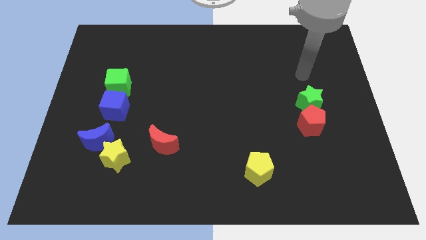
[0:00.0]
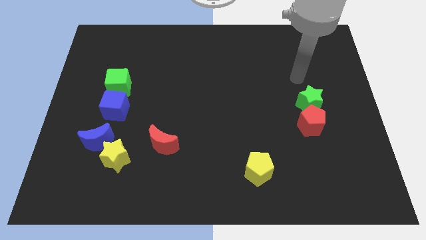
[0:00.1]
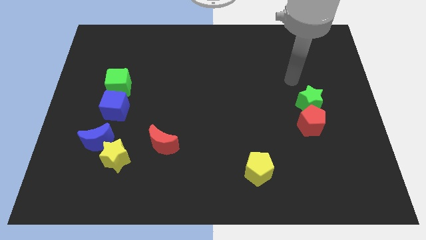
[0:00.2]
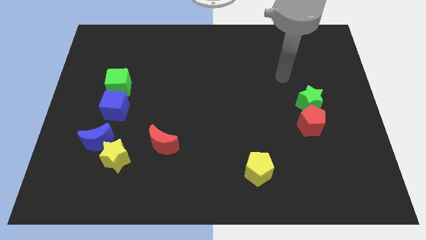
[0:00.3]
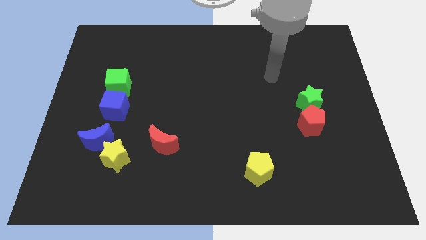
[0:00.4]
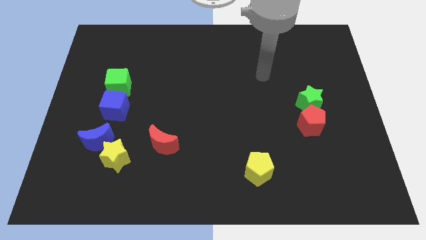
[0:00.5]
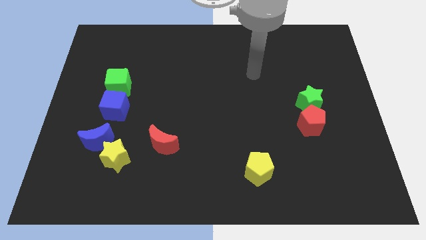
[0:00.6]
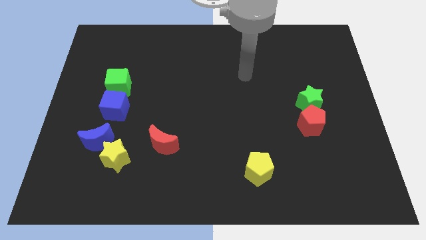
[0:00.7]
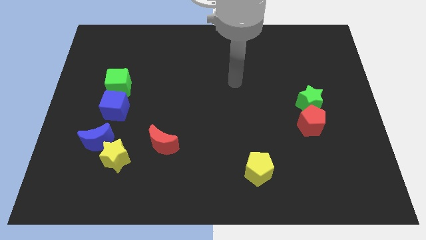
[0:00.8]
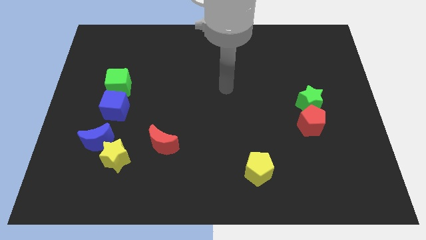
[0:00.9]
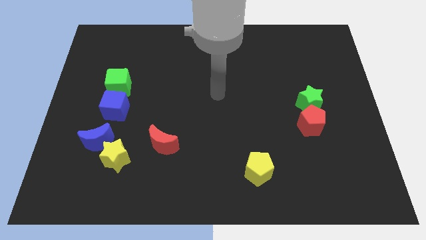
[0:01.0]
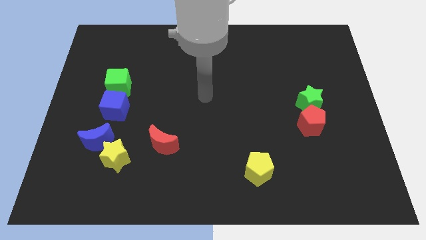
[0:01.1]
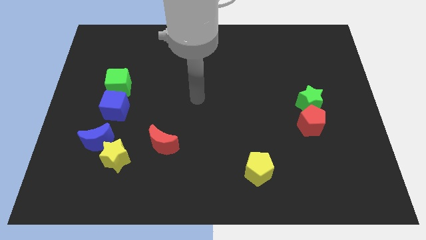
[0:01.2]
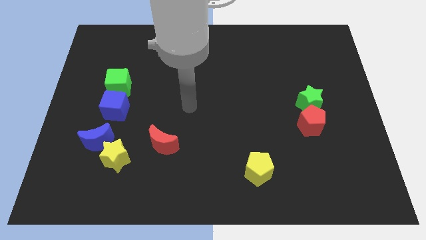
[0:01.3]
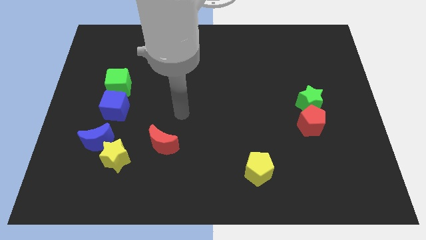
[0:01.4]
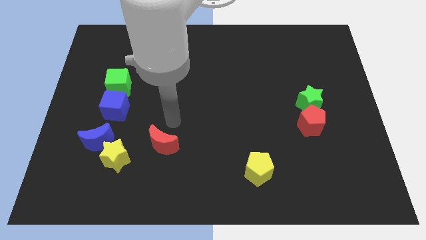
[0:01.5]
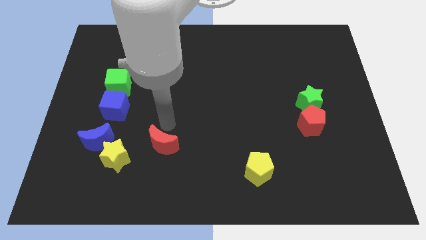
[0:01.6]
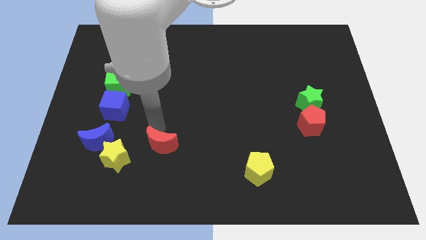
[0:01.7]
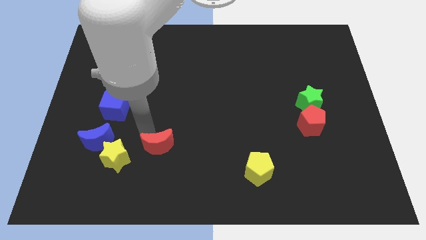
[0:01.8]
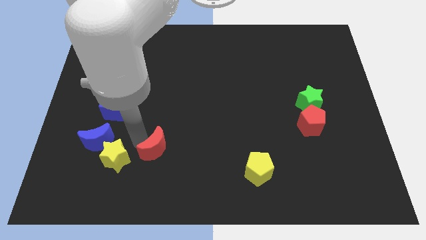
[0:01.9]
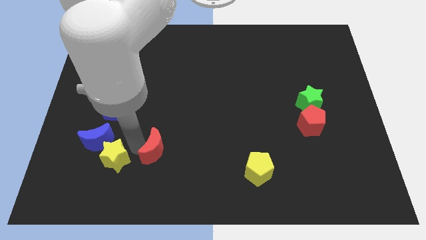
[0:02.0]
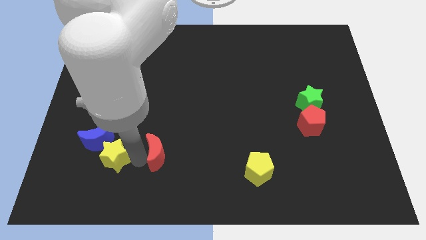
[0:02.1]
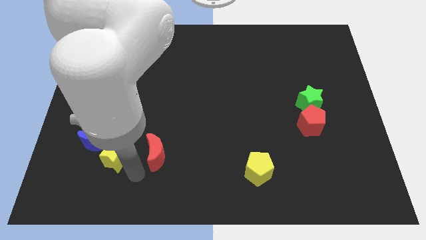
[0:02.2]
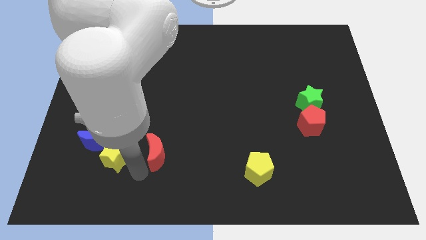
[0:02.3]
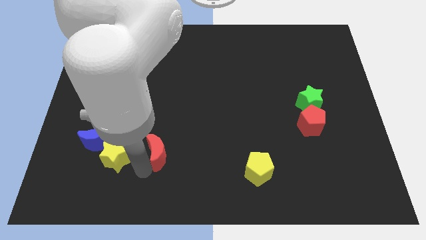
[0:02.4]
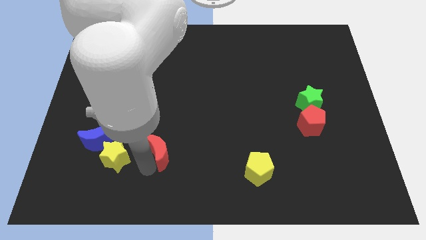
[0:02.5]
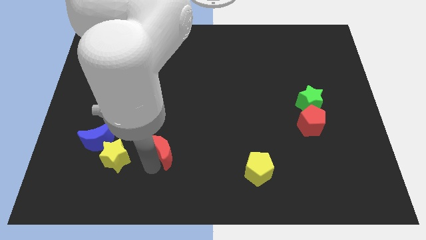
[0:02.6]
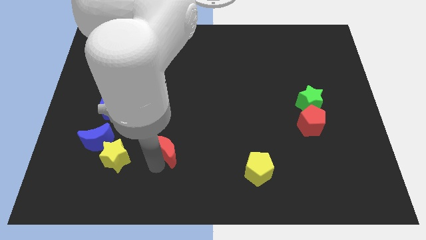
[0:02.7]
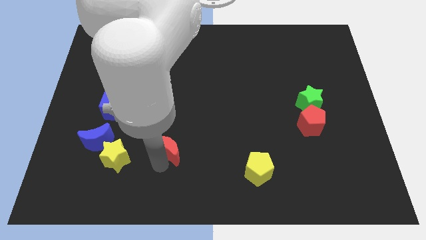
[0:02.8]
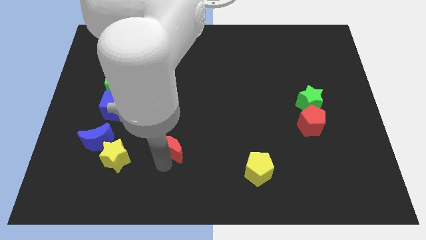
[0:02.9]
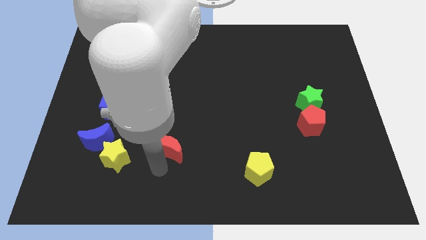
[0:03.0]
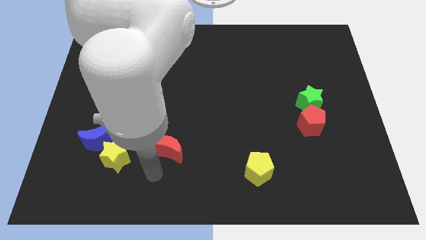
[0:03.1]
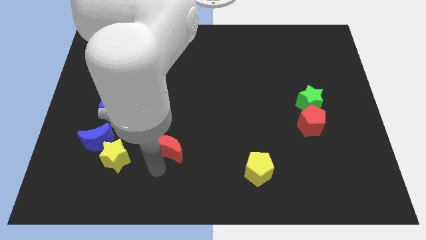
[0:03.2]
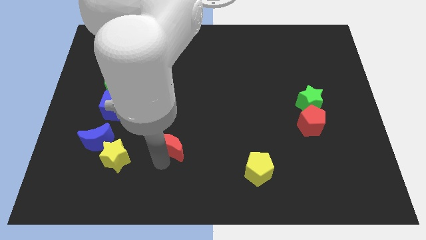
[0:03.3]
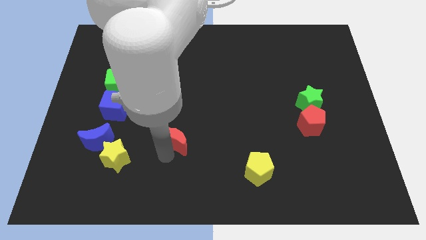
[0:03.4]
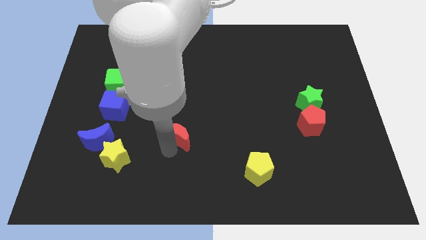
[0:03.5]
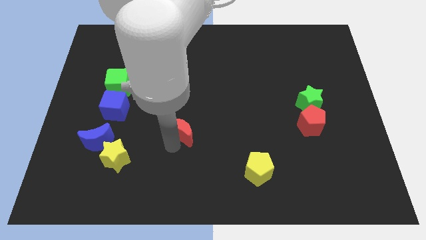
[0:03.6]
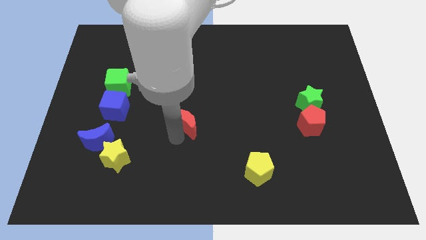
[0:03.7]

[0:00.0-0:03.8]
slightly push the red moon up and right diagonally

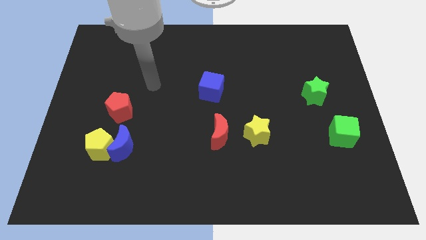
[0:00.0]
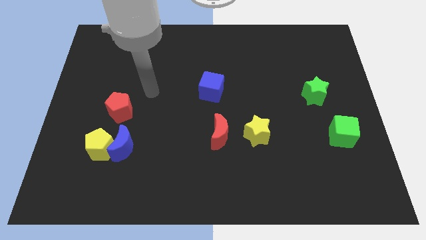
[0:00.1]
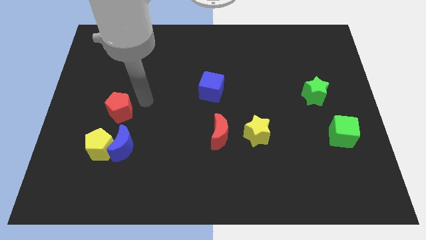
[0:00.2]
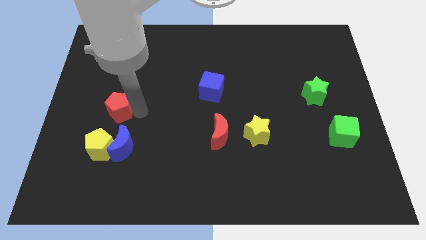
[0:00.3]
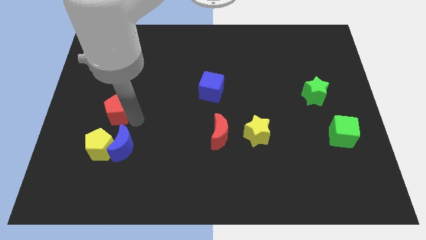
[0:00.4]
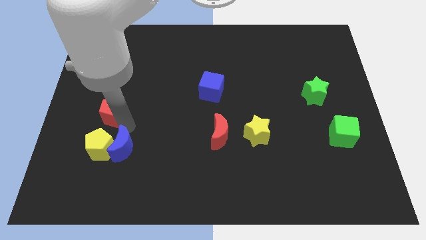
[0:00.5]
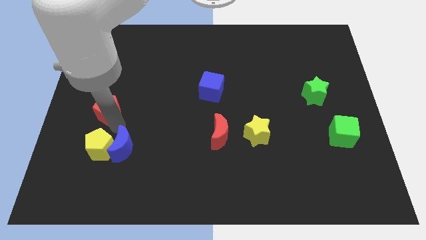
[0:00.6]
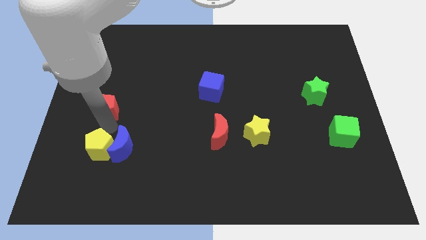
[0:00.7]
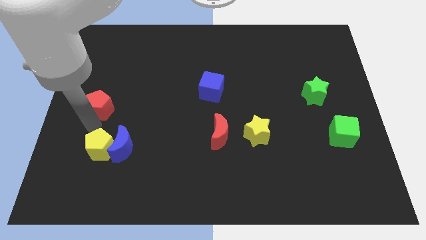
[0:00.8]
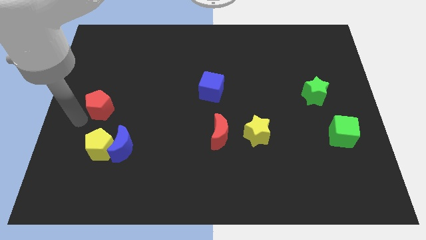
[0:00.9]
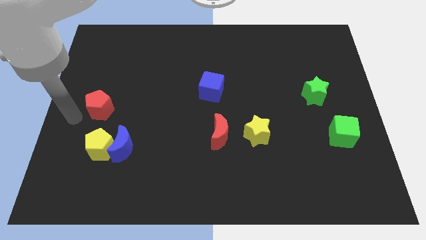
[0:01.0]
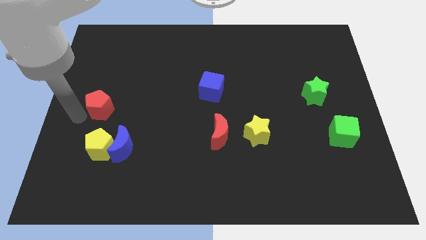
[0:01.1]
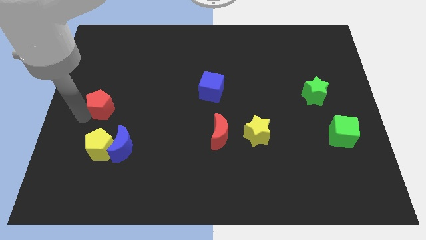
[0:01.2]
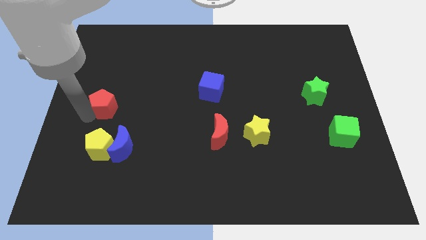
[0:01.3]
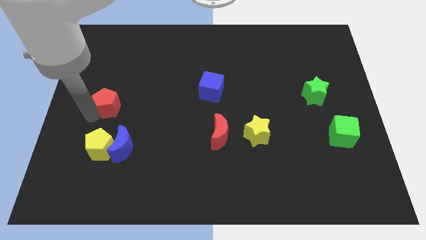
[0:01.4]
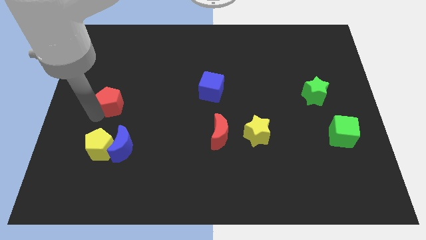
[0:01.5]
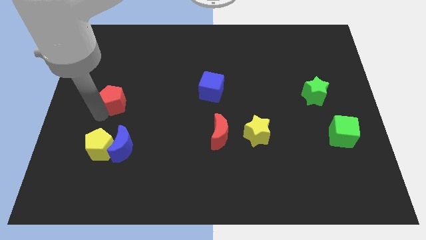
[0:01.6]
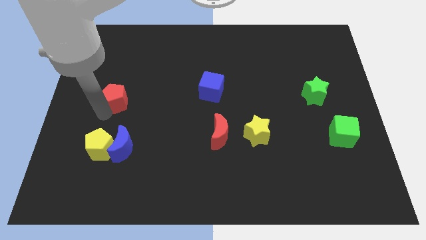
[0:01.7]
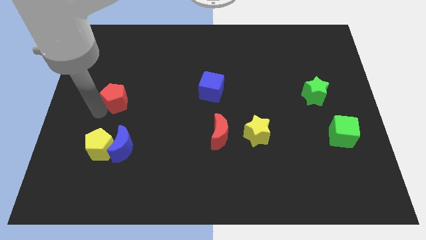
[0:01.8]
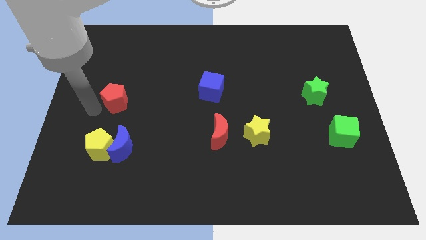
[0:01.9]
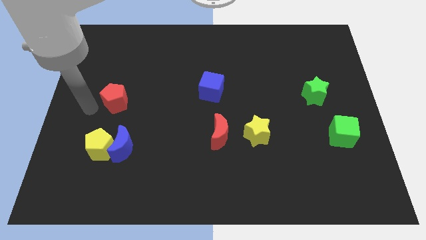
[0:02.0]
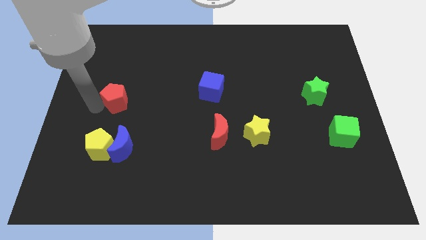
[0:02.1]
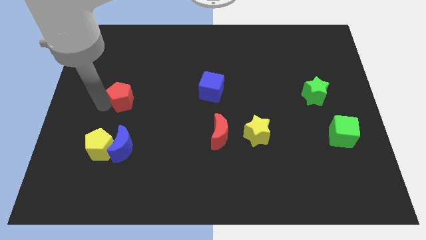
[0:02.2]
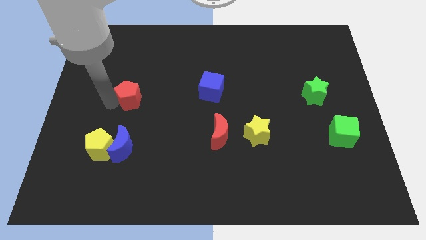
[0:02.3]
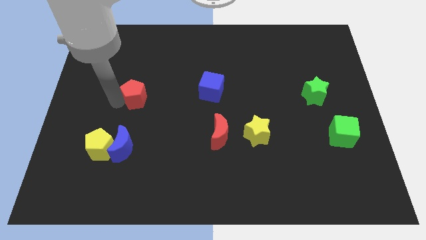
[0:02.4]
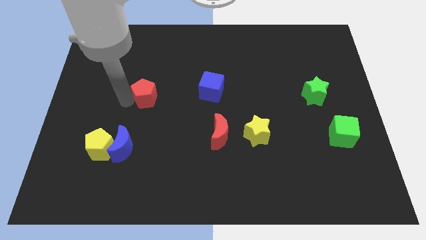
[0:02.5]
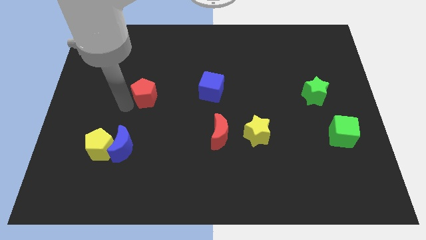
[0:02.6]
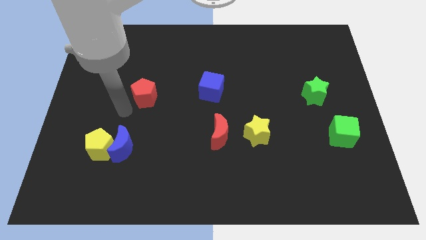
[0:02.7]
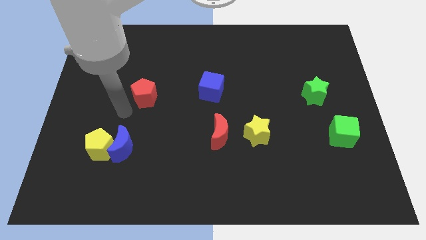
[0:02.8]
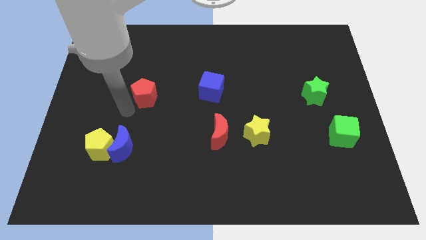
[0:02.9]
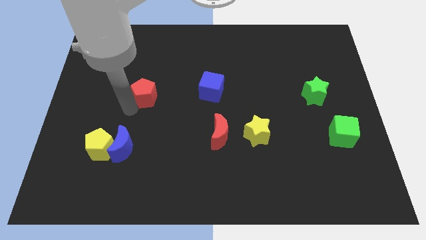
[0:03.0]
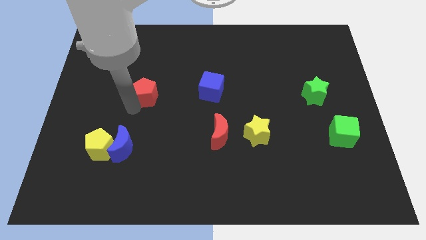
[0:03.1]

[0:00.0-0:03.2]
slightly push the red pentagon upwards and right

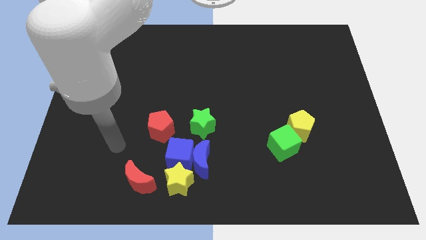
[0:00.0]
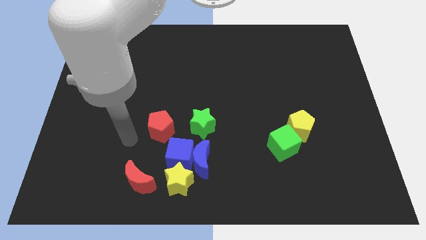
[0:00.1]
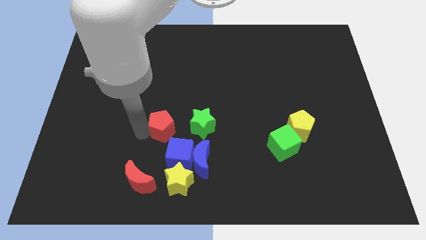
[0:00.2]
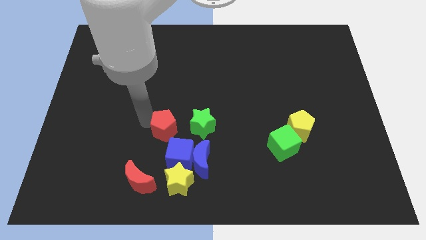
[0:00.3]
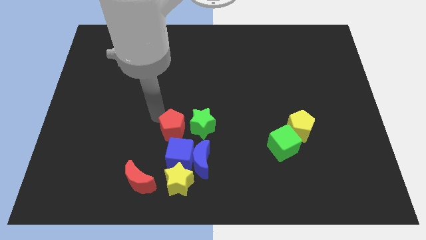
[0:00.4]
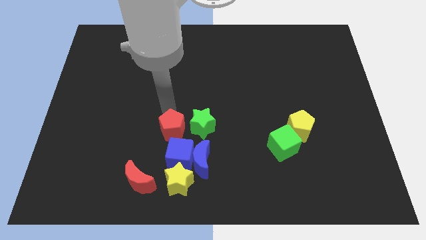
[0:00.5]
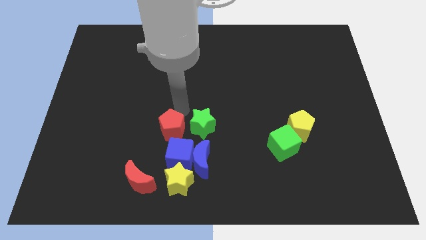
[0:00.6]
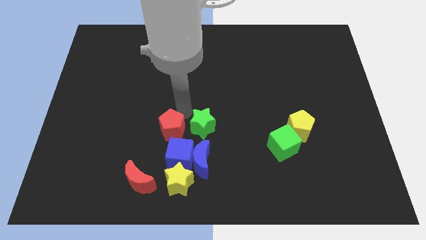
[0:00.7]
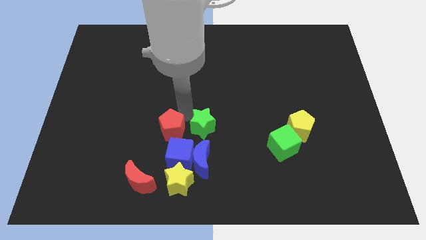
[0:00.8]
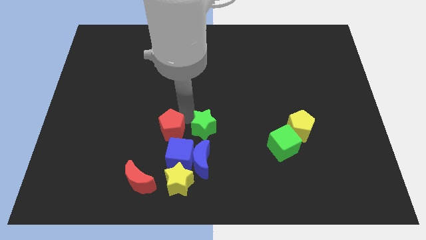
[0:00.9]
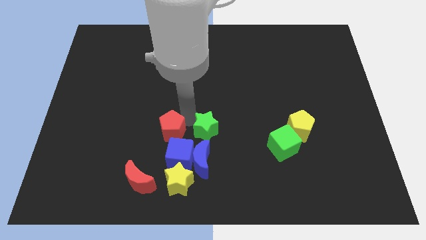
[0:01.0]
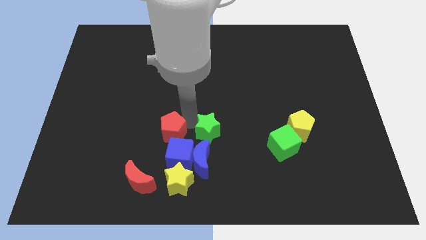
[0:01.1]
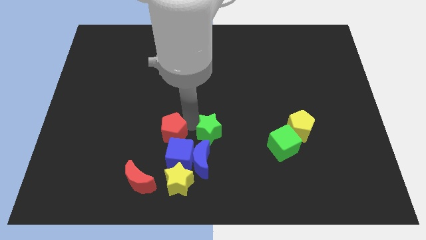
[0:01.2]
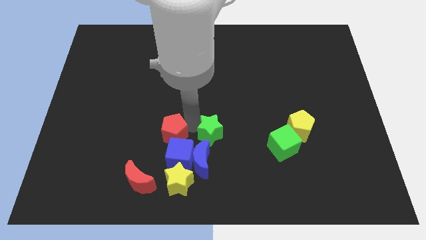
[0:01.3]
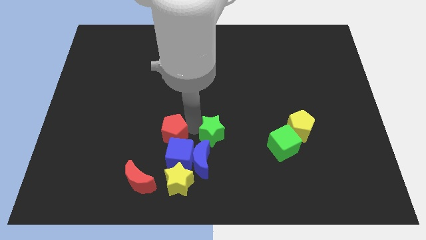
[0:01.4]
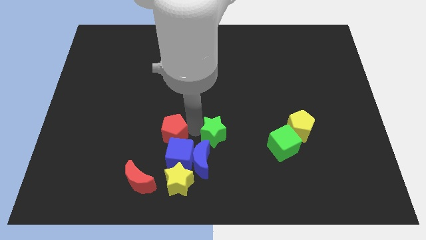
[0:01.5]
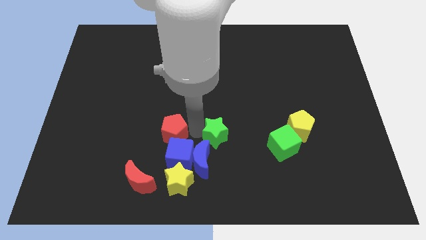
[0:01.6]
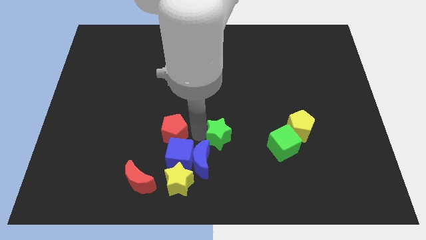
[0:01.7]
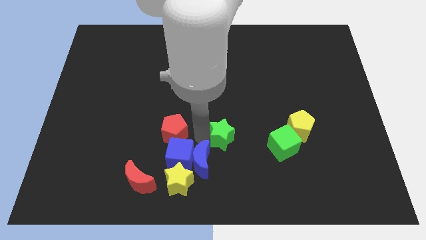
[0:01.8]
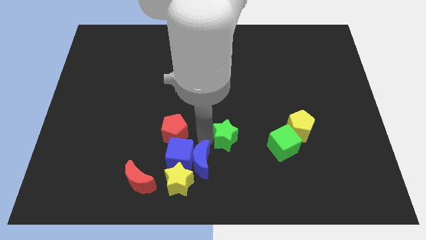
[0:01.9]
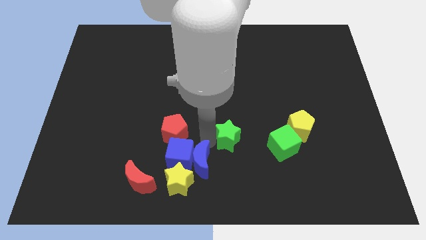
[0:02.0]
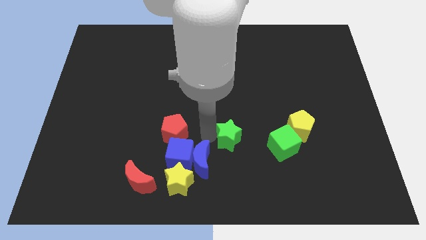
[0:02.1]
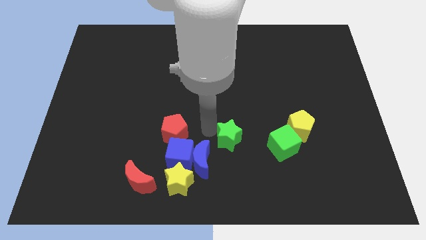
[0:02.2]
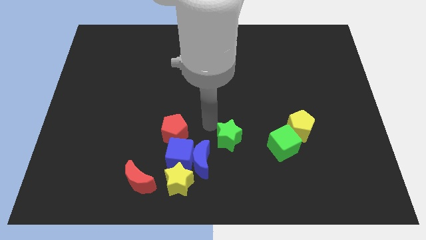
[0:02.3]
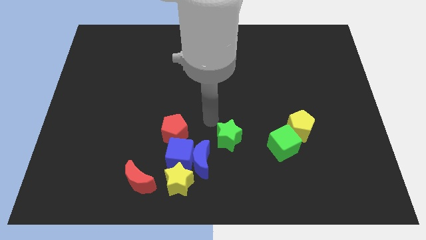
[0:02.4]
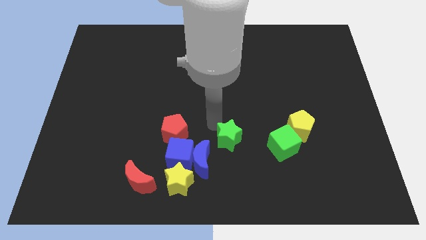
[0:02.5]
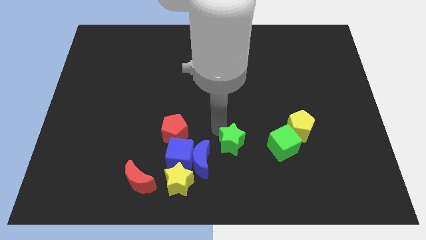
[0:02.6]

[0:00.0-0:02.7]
push the green star a little bit down and right
